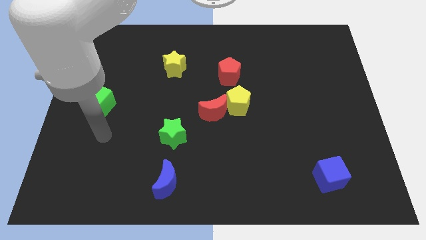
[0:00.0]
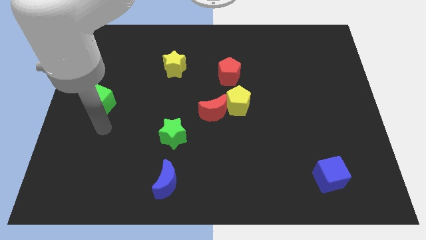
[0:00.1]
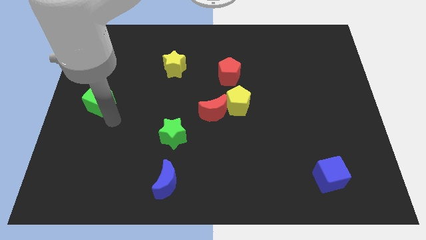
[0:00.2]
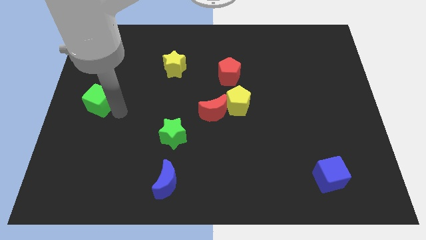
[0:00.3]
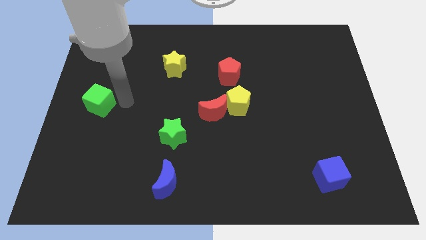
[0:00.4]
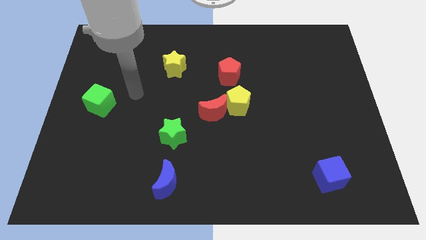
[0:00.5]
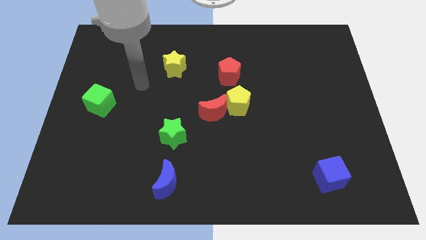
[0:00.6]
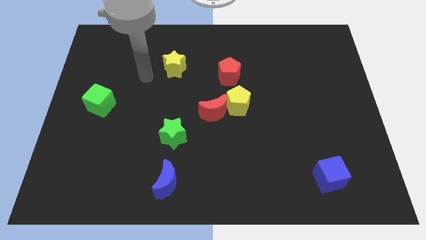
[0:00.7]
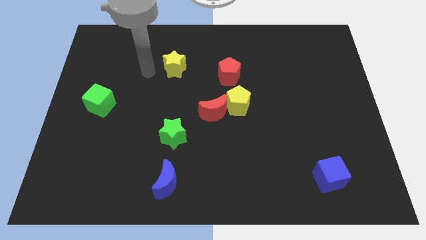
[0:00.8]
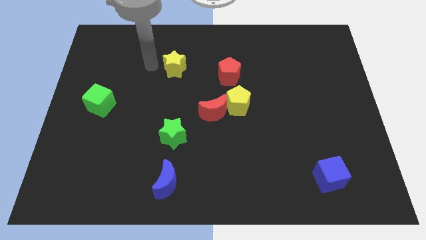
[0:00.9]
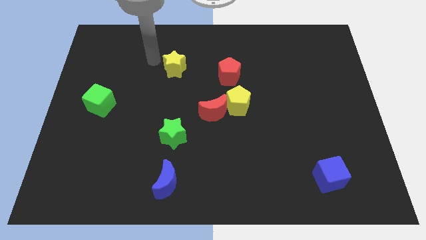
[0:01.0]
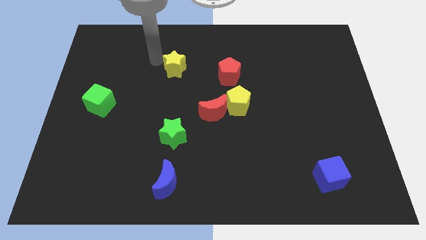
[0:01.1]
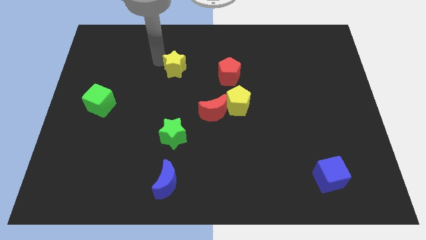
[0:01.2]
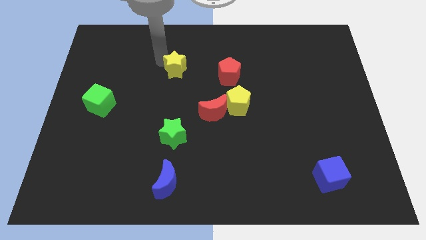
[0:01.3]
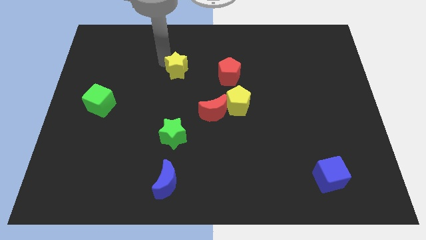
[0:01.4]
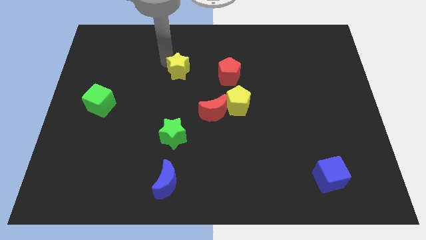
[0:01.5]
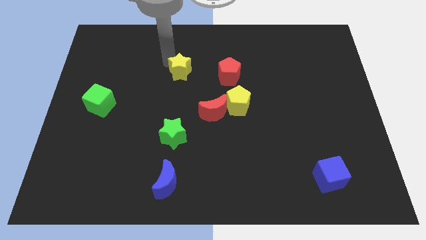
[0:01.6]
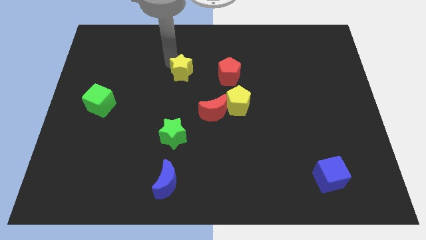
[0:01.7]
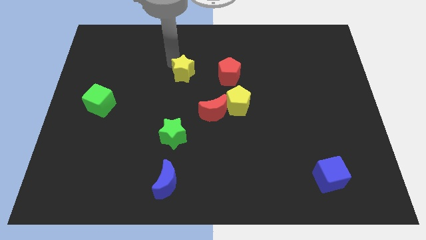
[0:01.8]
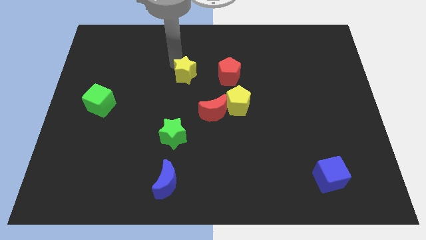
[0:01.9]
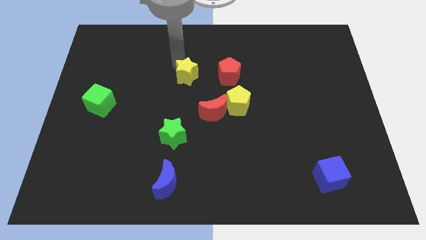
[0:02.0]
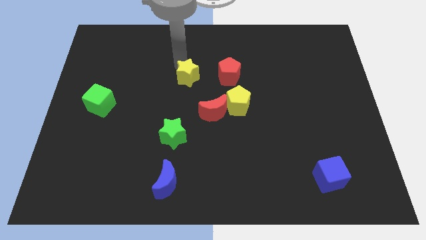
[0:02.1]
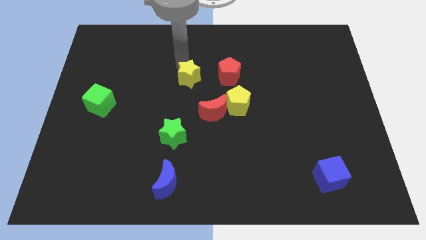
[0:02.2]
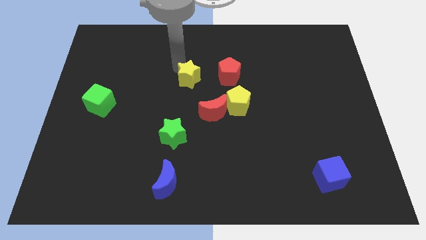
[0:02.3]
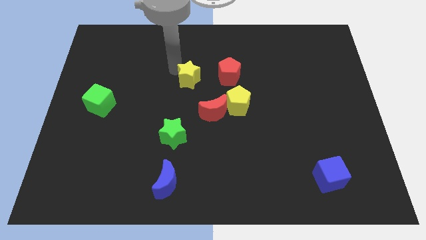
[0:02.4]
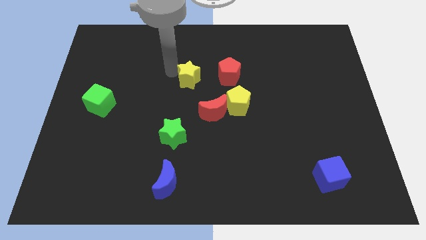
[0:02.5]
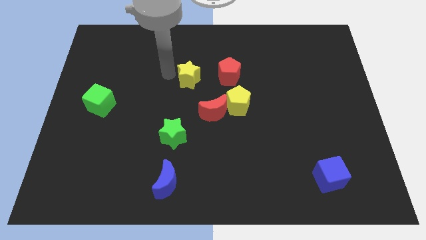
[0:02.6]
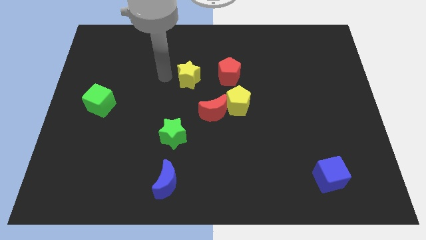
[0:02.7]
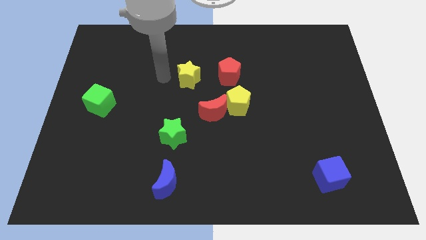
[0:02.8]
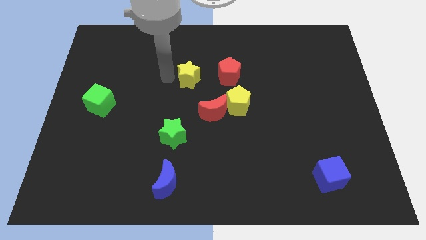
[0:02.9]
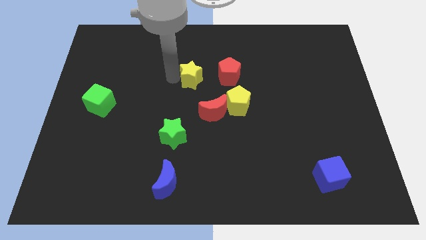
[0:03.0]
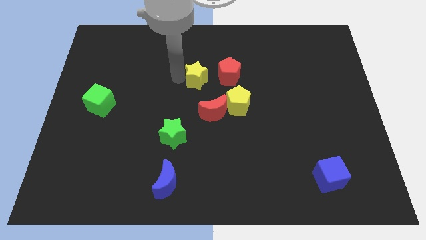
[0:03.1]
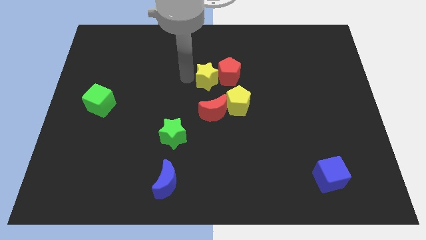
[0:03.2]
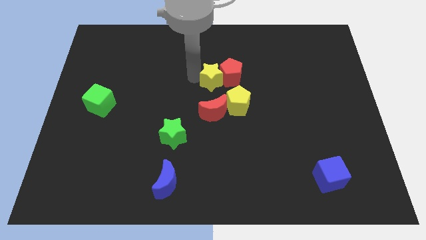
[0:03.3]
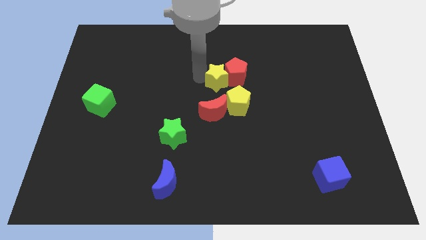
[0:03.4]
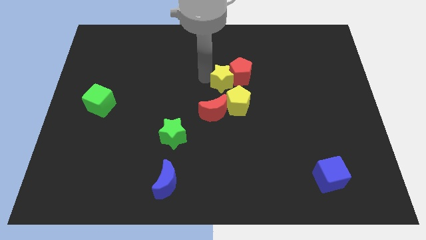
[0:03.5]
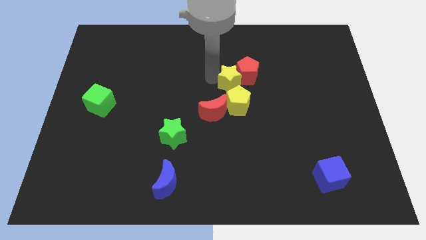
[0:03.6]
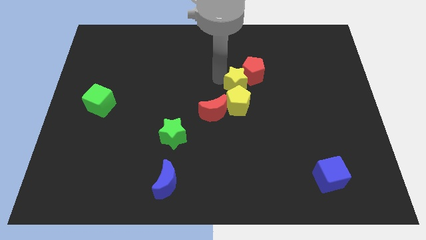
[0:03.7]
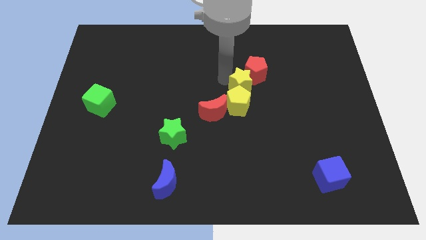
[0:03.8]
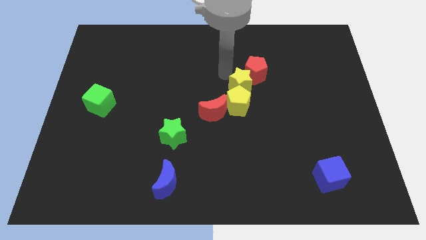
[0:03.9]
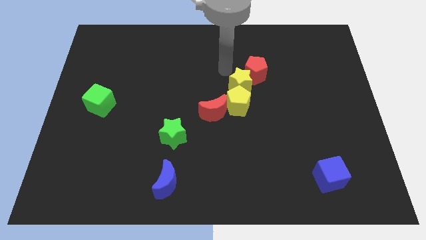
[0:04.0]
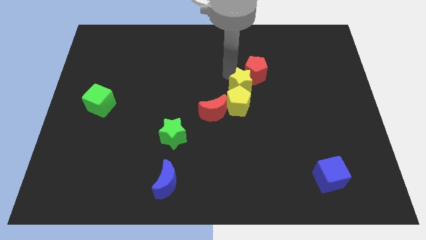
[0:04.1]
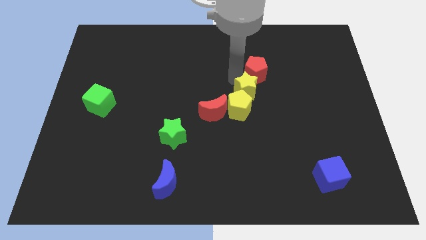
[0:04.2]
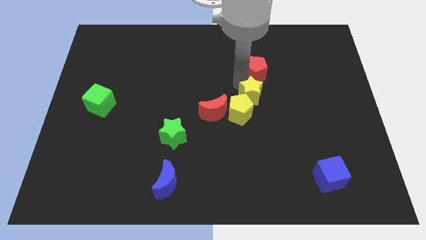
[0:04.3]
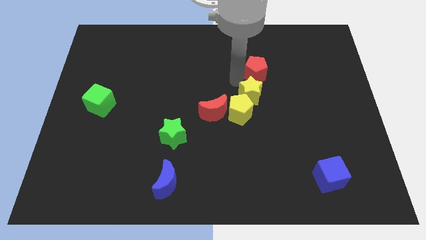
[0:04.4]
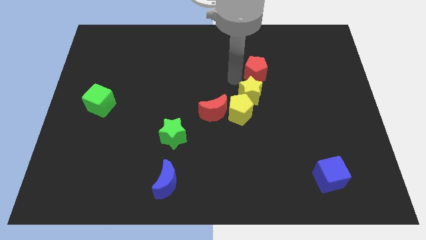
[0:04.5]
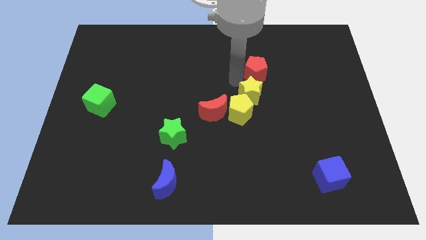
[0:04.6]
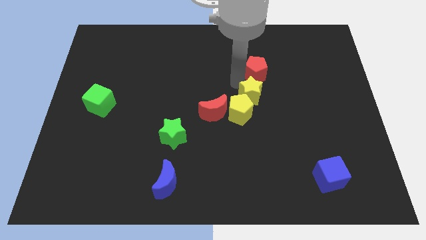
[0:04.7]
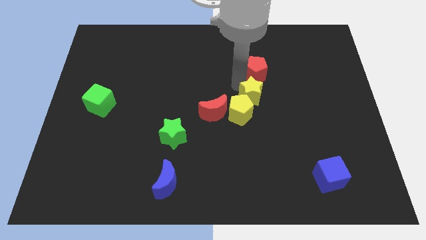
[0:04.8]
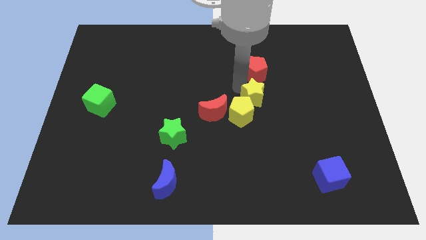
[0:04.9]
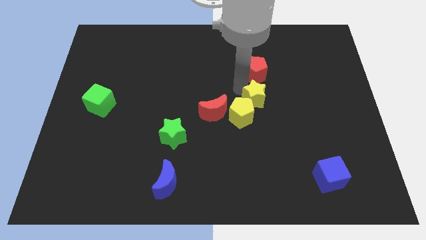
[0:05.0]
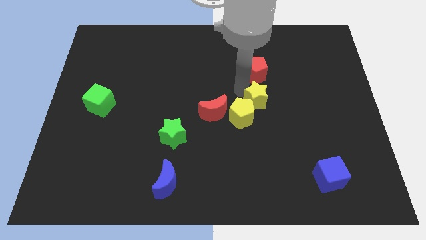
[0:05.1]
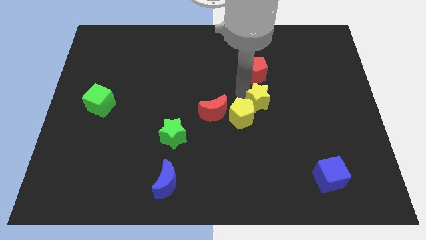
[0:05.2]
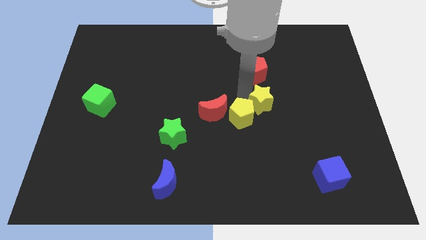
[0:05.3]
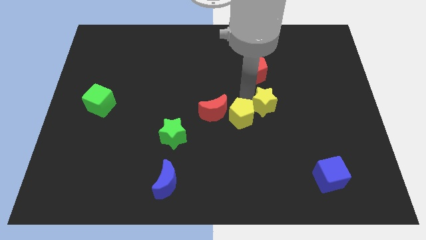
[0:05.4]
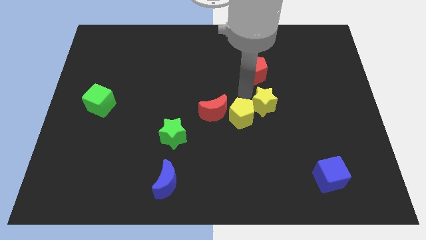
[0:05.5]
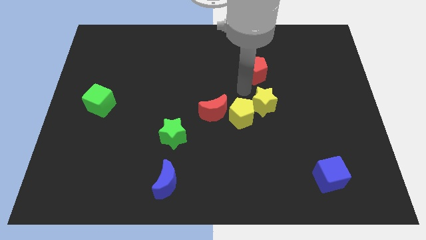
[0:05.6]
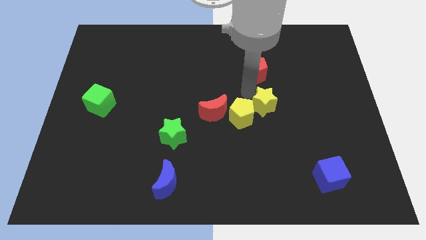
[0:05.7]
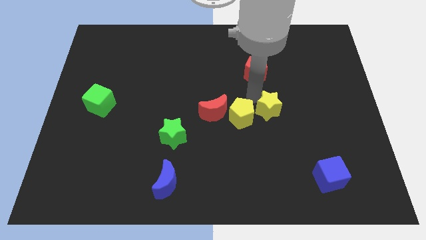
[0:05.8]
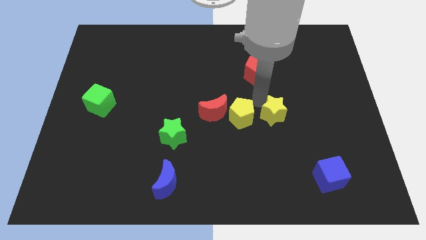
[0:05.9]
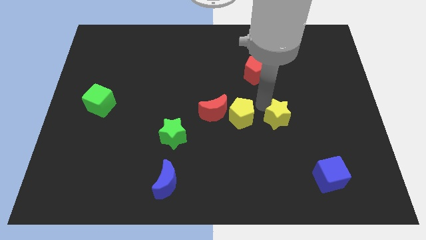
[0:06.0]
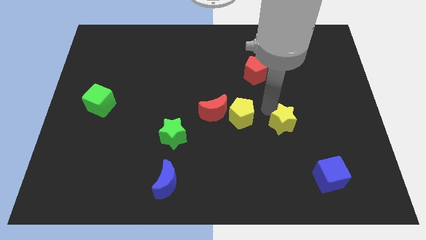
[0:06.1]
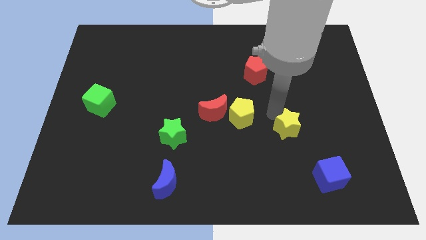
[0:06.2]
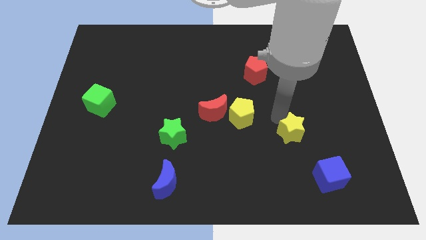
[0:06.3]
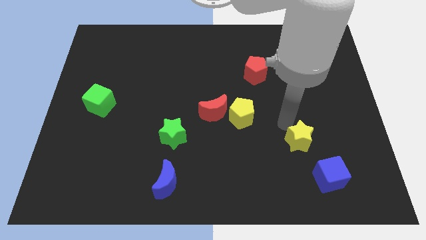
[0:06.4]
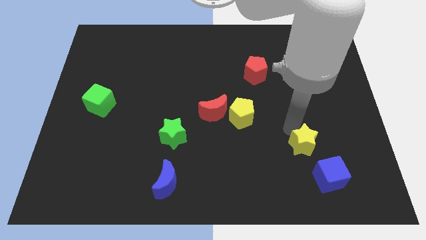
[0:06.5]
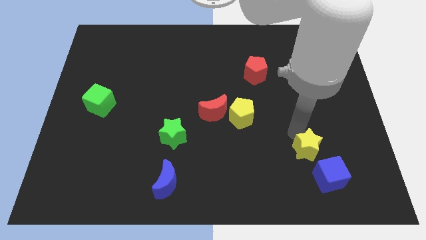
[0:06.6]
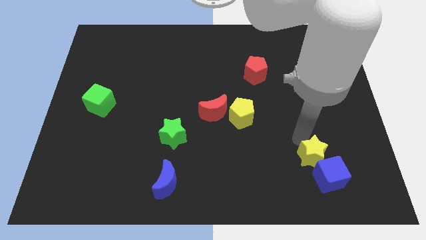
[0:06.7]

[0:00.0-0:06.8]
push the yellow star next to the blue cube
